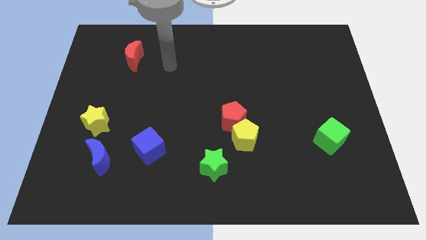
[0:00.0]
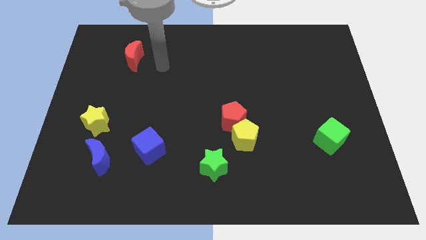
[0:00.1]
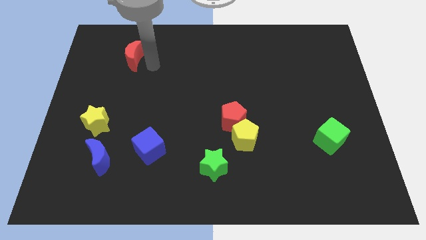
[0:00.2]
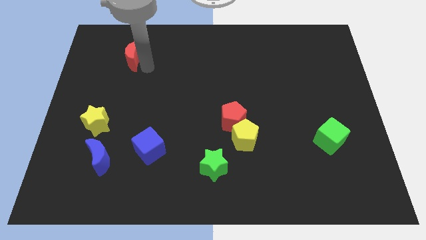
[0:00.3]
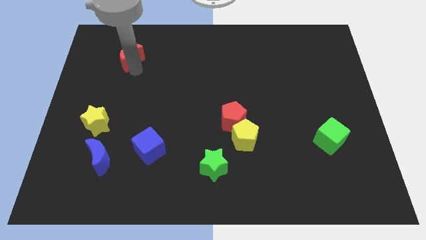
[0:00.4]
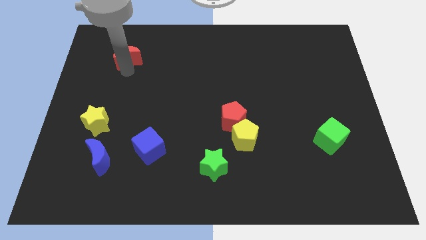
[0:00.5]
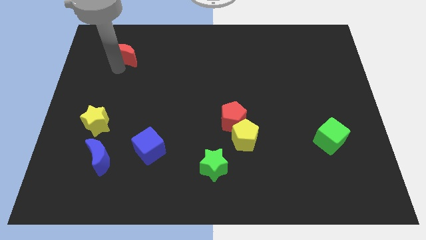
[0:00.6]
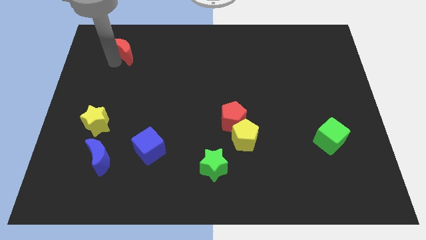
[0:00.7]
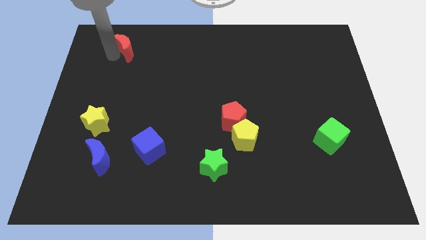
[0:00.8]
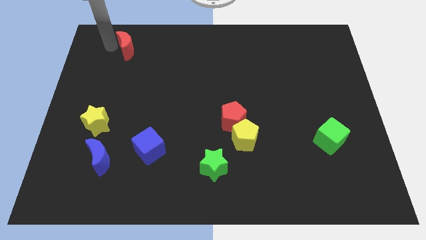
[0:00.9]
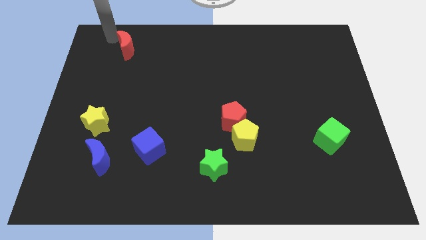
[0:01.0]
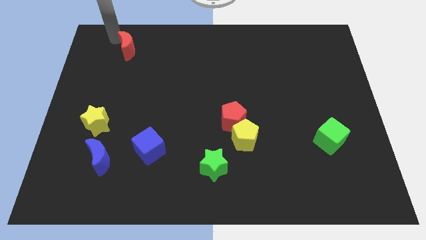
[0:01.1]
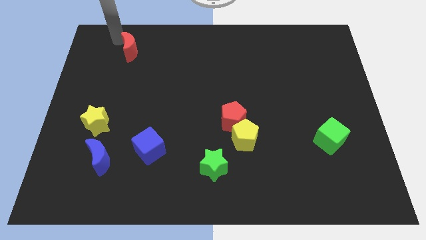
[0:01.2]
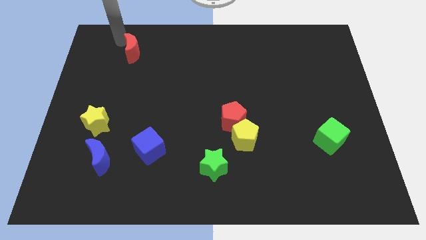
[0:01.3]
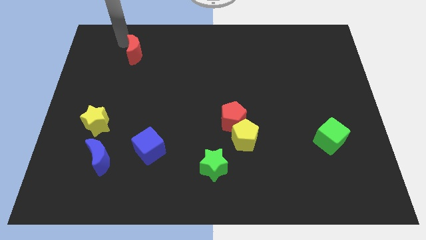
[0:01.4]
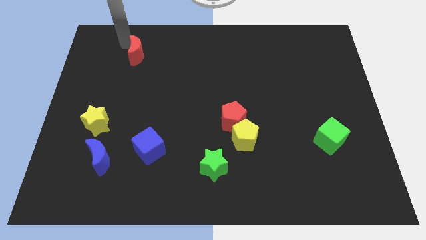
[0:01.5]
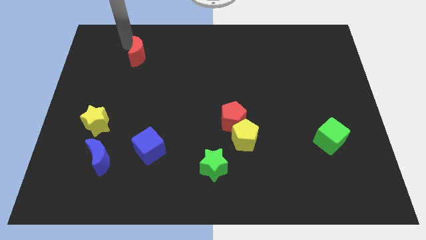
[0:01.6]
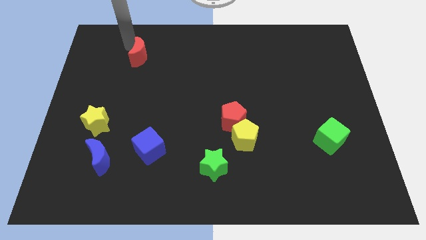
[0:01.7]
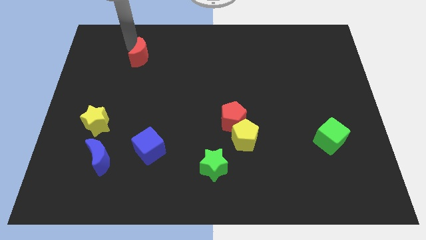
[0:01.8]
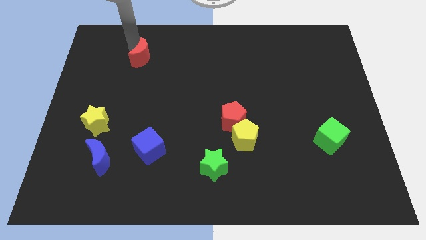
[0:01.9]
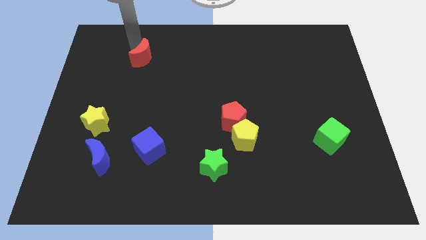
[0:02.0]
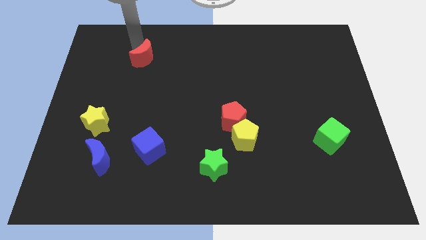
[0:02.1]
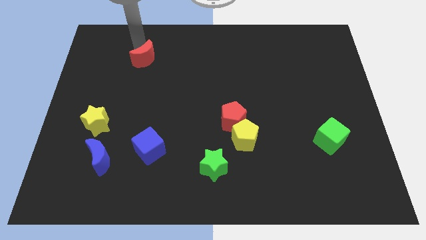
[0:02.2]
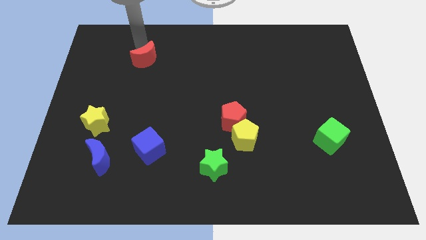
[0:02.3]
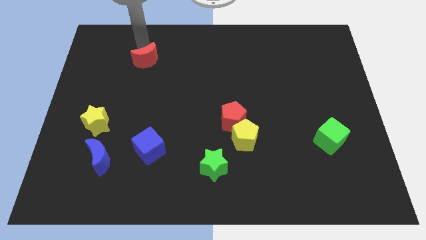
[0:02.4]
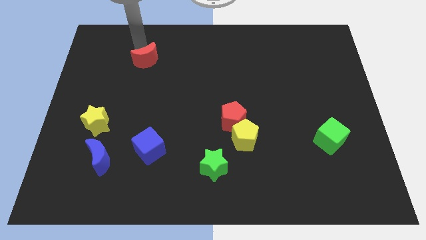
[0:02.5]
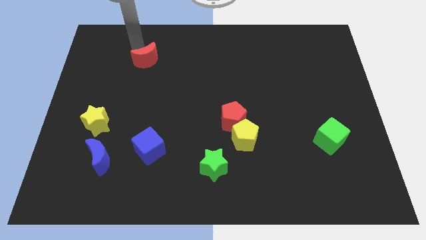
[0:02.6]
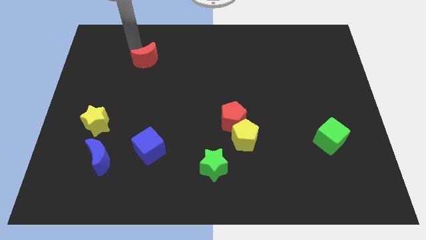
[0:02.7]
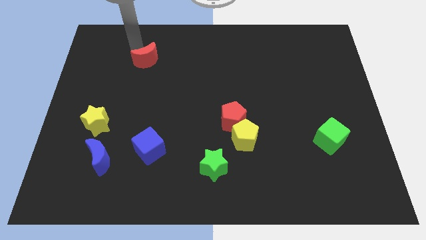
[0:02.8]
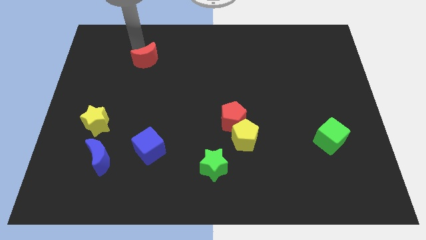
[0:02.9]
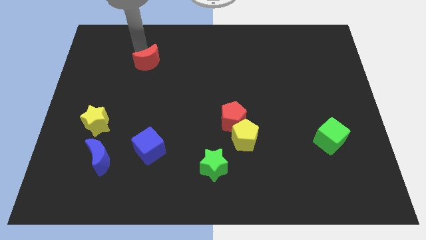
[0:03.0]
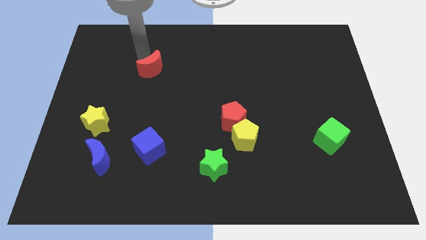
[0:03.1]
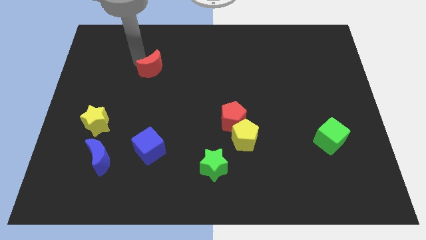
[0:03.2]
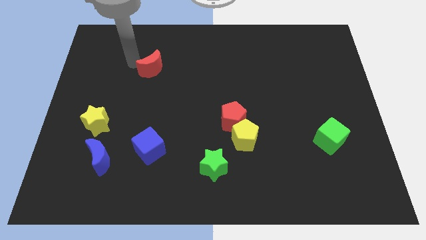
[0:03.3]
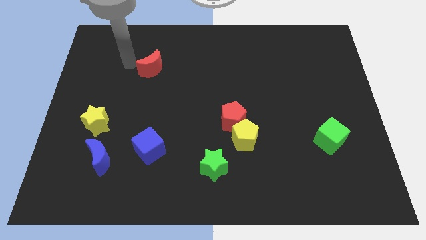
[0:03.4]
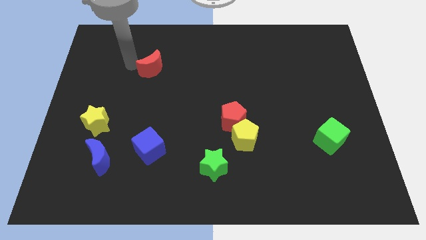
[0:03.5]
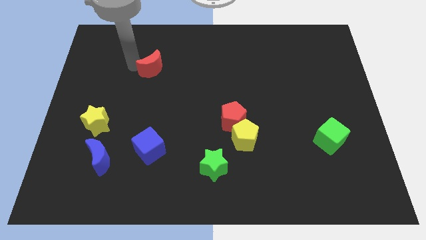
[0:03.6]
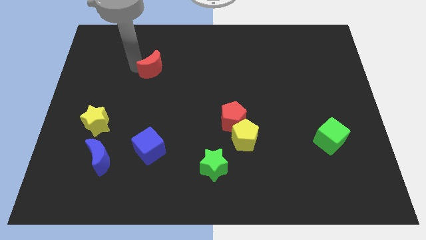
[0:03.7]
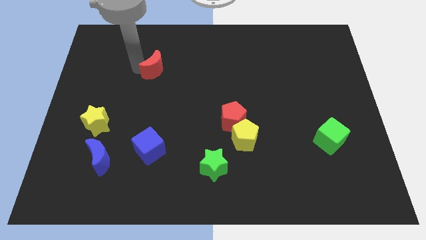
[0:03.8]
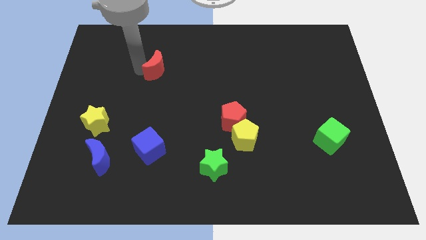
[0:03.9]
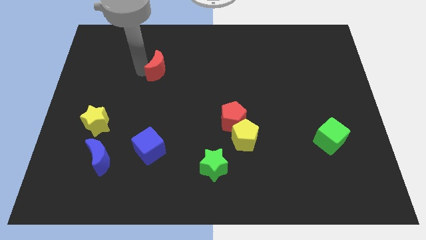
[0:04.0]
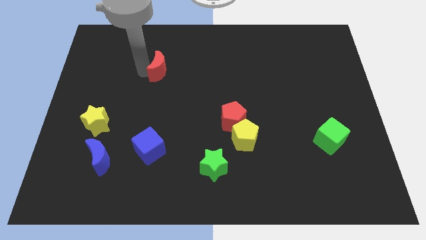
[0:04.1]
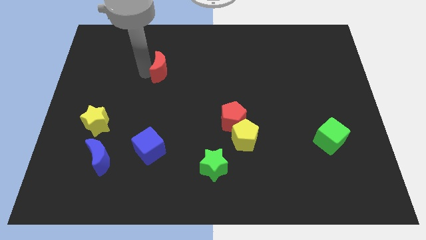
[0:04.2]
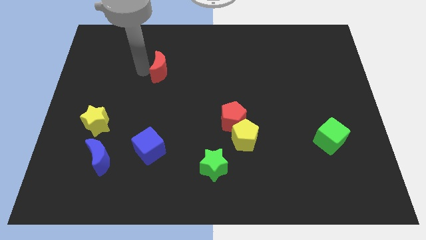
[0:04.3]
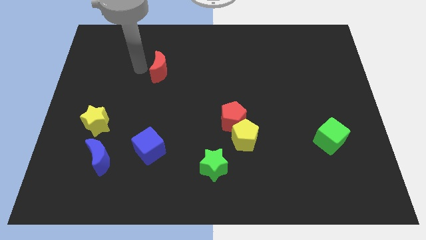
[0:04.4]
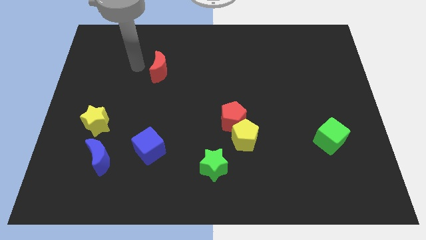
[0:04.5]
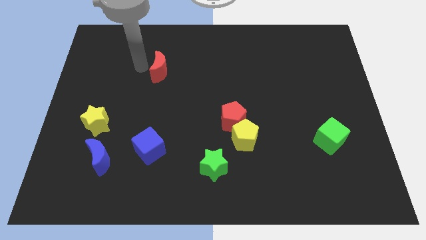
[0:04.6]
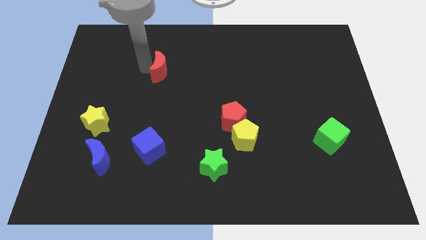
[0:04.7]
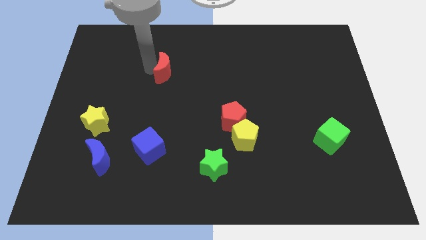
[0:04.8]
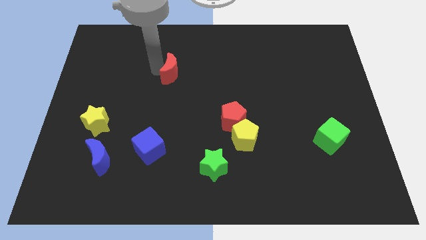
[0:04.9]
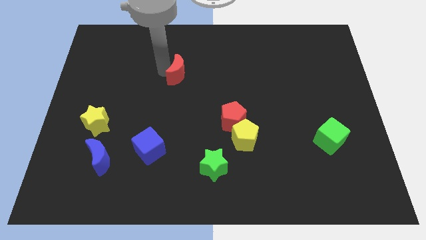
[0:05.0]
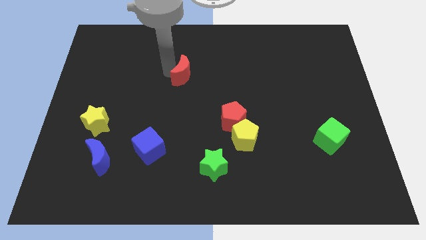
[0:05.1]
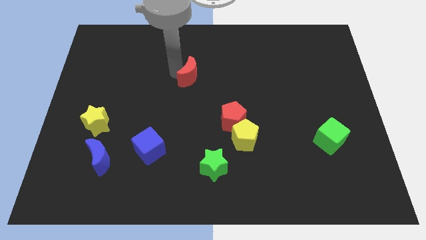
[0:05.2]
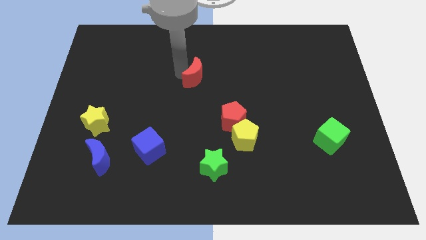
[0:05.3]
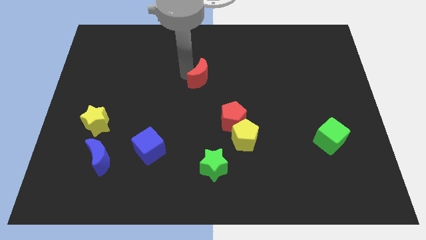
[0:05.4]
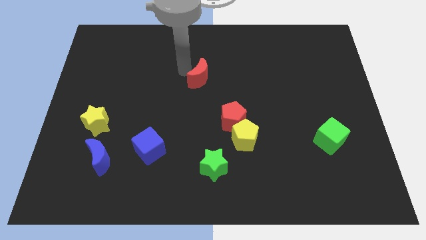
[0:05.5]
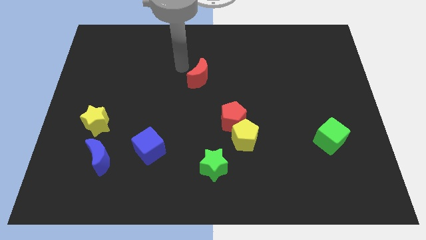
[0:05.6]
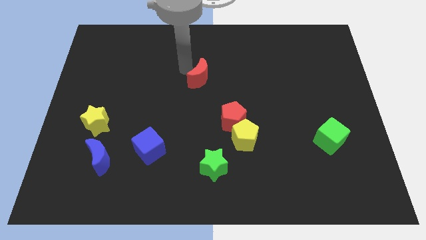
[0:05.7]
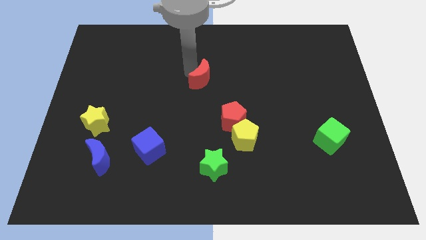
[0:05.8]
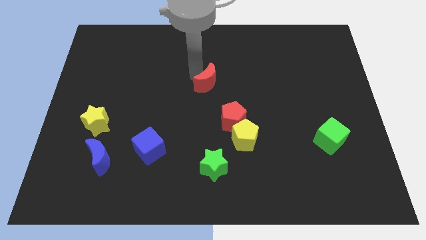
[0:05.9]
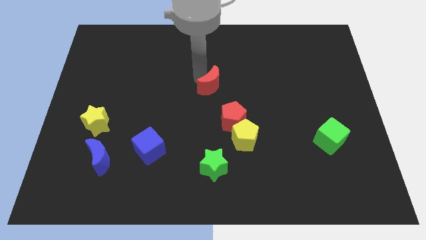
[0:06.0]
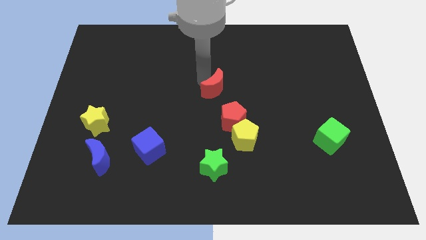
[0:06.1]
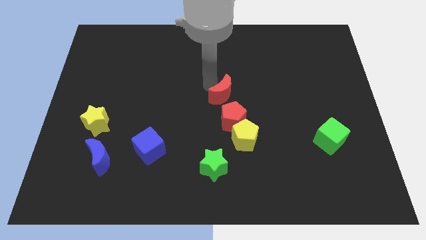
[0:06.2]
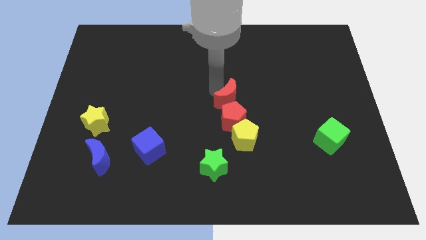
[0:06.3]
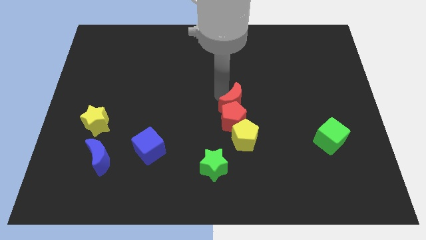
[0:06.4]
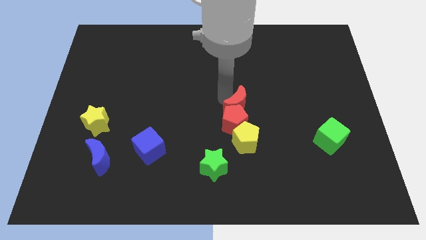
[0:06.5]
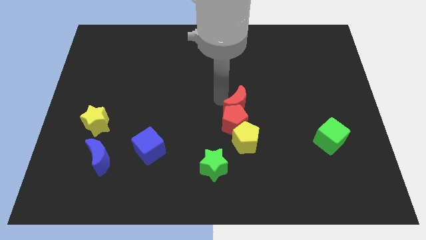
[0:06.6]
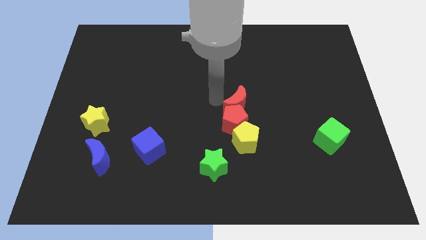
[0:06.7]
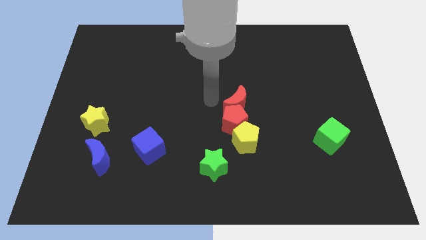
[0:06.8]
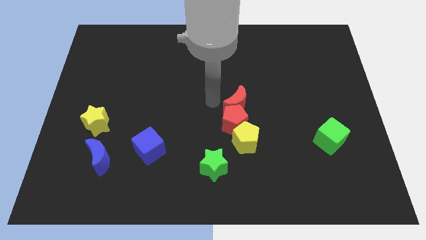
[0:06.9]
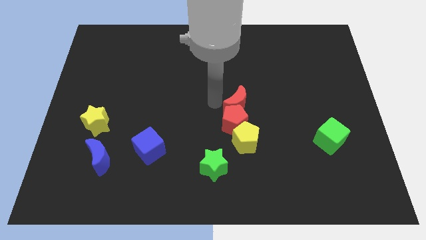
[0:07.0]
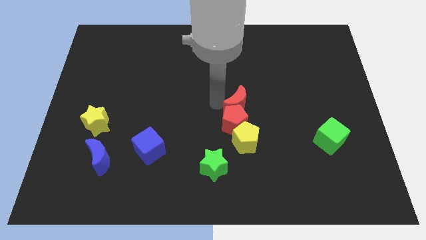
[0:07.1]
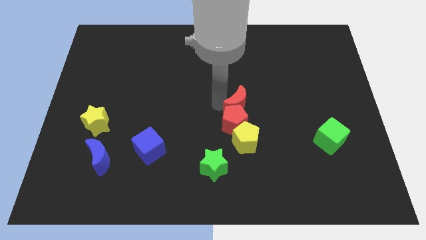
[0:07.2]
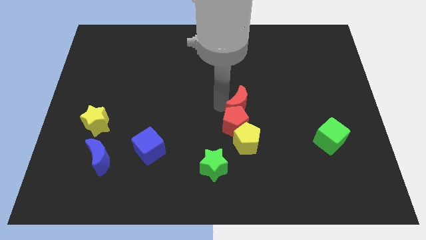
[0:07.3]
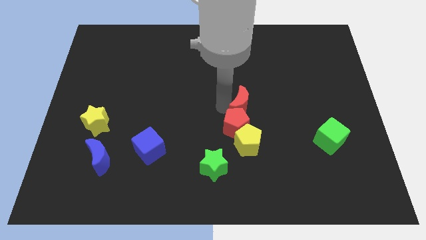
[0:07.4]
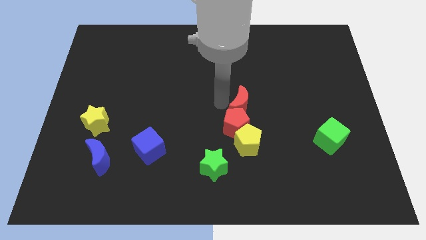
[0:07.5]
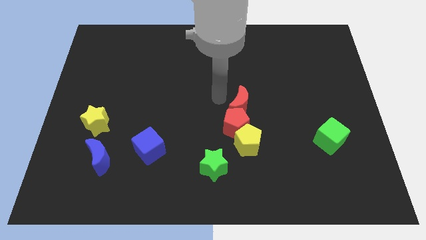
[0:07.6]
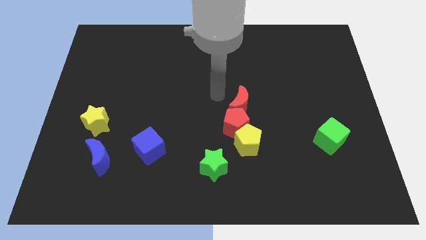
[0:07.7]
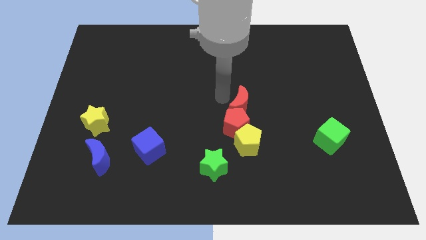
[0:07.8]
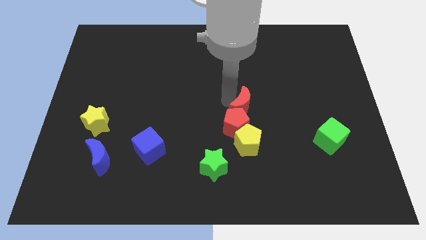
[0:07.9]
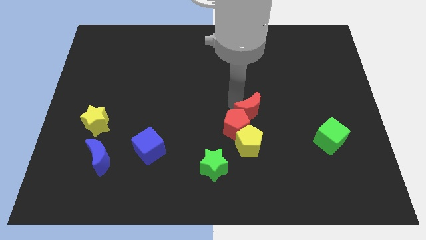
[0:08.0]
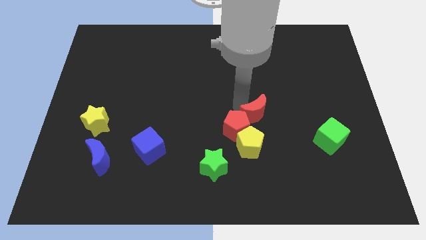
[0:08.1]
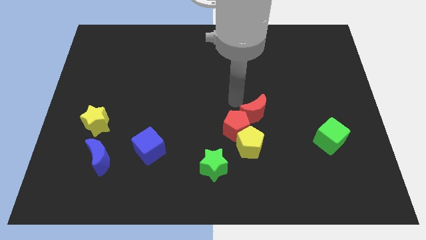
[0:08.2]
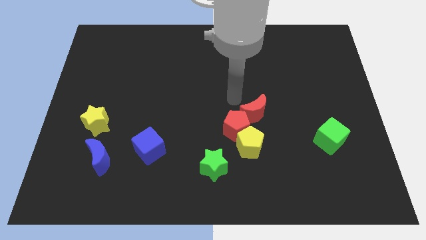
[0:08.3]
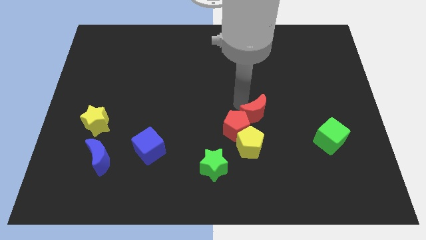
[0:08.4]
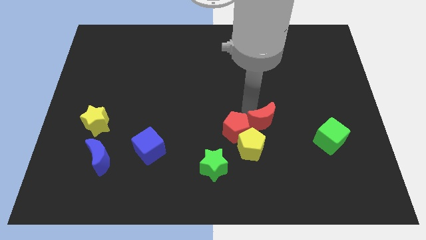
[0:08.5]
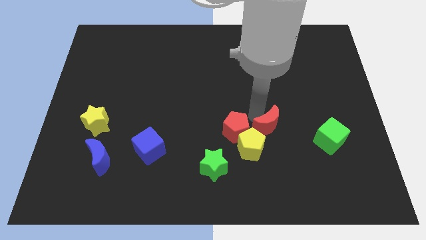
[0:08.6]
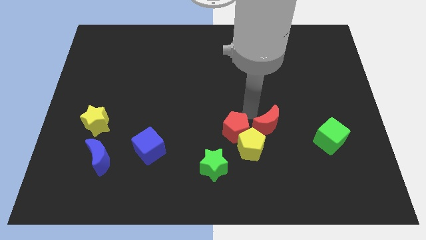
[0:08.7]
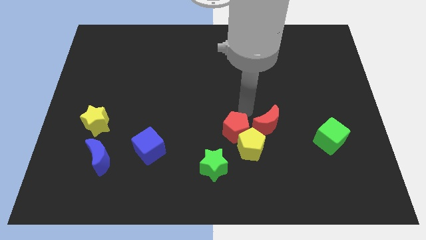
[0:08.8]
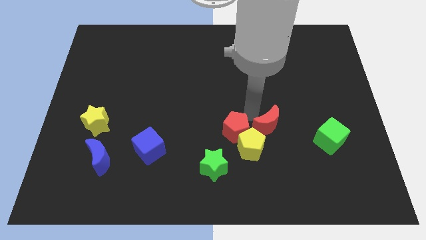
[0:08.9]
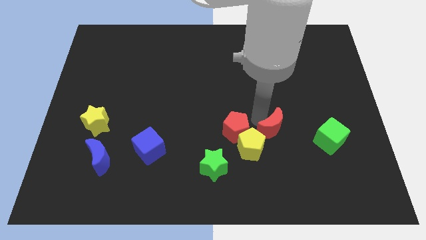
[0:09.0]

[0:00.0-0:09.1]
put the red moon to the right of the yellow pentagon
